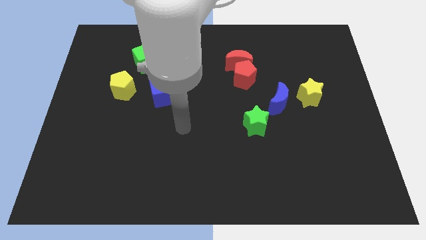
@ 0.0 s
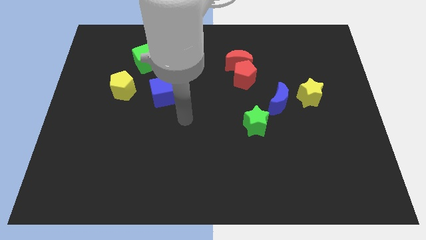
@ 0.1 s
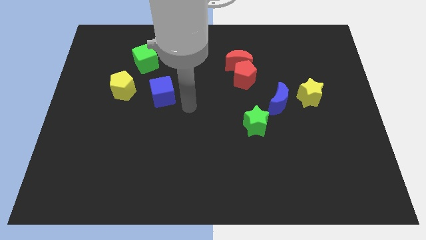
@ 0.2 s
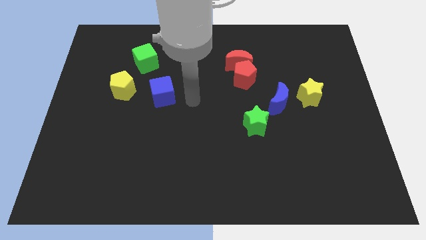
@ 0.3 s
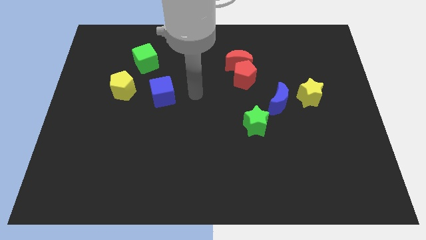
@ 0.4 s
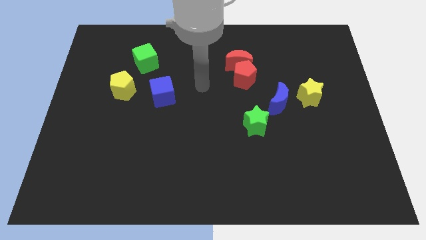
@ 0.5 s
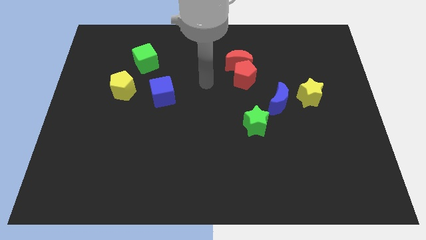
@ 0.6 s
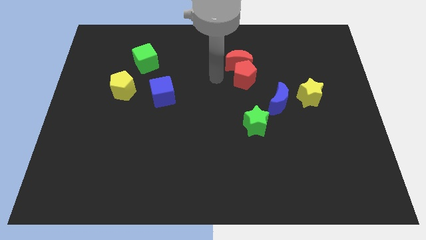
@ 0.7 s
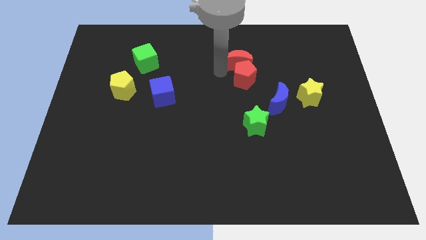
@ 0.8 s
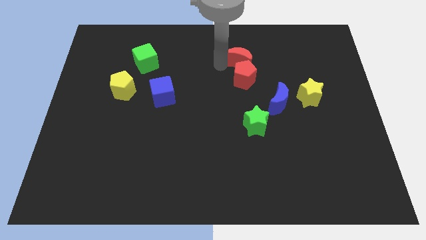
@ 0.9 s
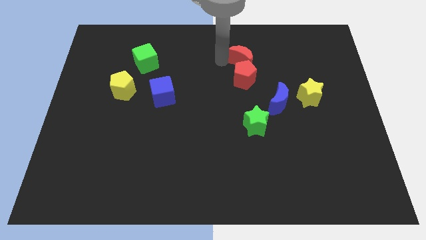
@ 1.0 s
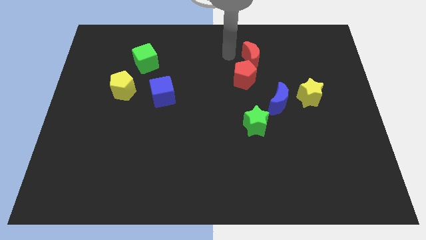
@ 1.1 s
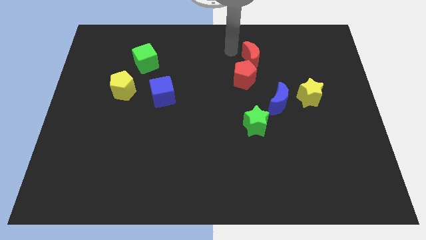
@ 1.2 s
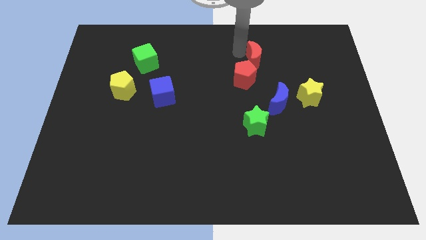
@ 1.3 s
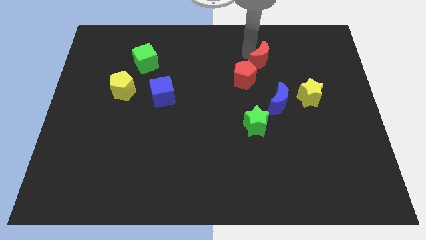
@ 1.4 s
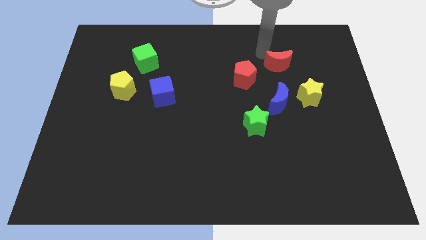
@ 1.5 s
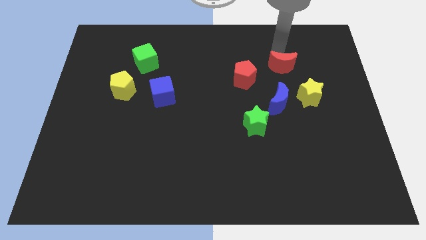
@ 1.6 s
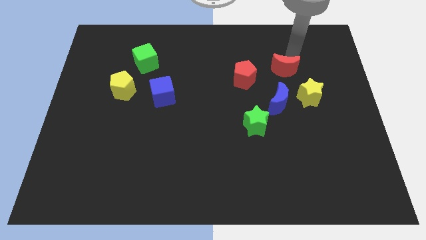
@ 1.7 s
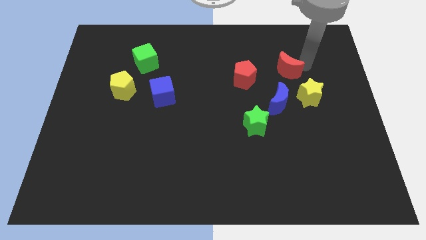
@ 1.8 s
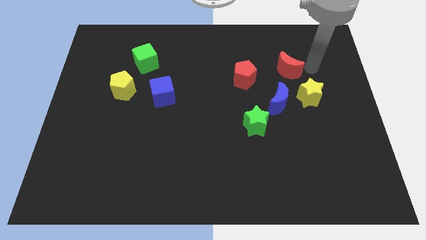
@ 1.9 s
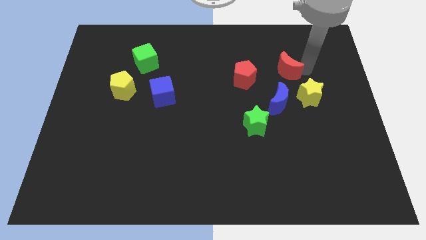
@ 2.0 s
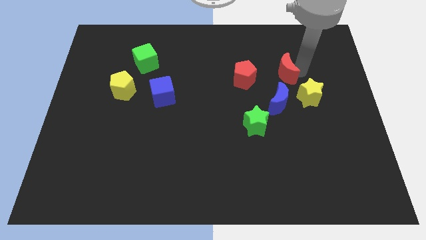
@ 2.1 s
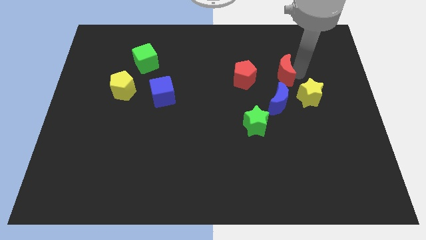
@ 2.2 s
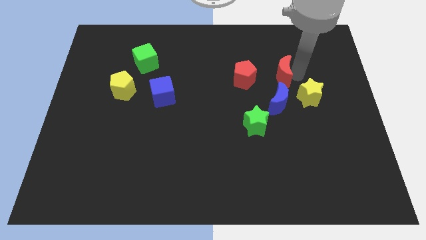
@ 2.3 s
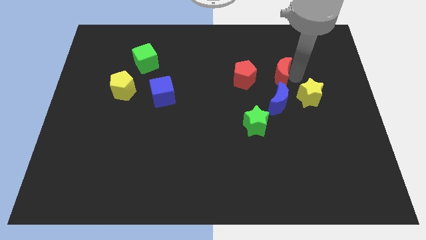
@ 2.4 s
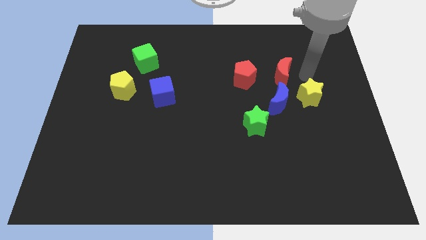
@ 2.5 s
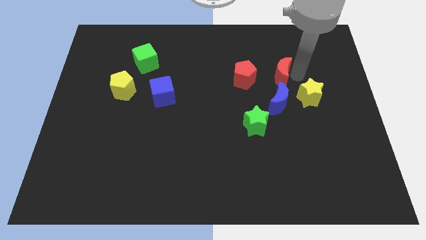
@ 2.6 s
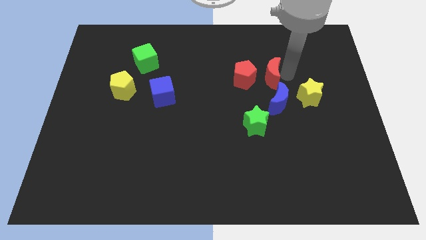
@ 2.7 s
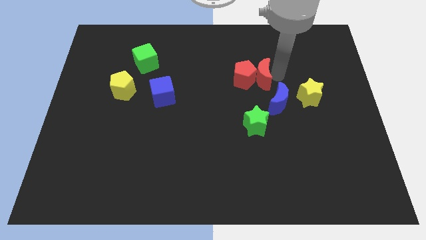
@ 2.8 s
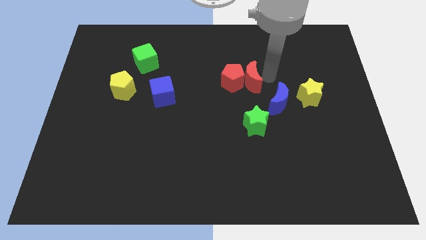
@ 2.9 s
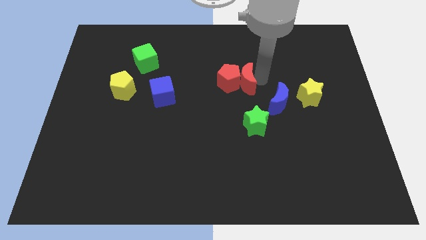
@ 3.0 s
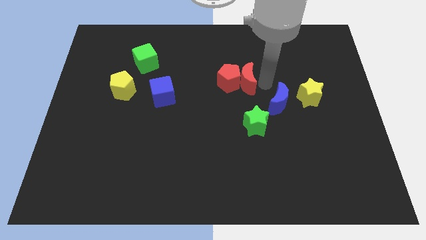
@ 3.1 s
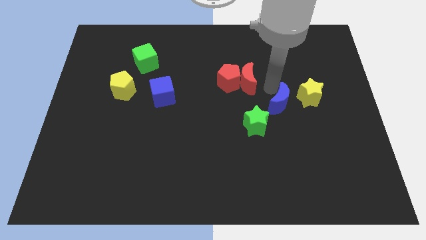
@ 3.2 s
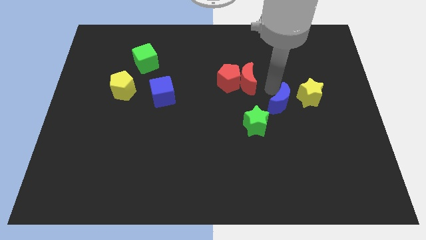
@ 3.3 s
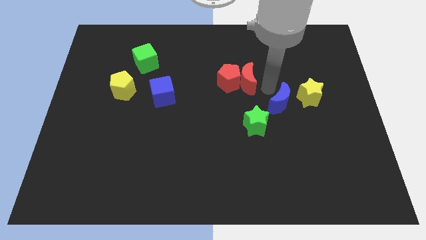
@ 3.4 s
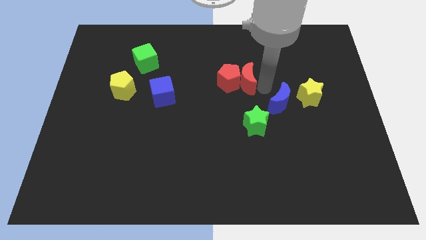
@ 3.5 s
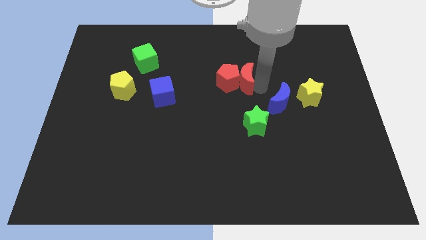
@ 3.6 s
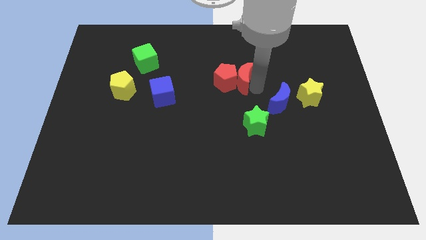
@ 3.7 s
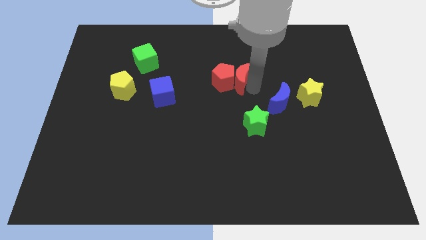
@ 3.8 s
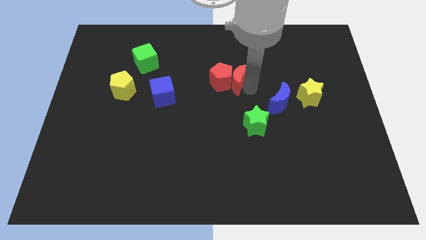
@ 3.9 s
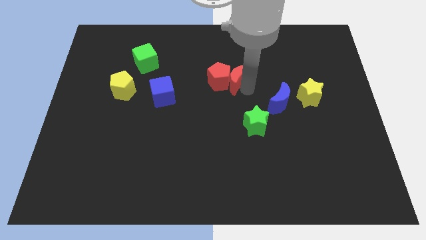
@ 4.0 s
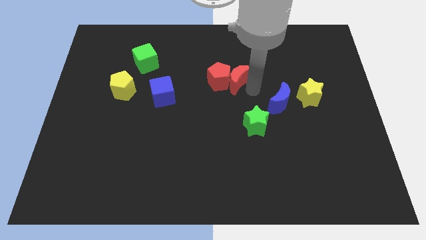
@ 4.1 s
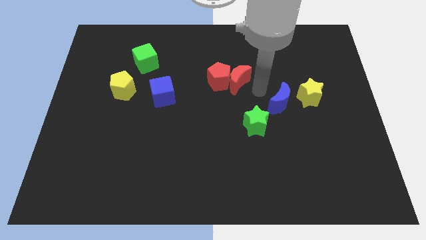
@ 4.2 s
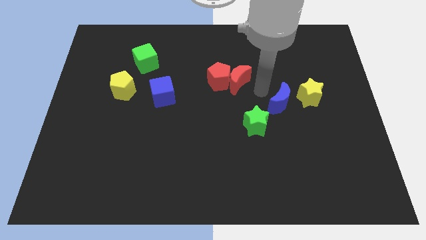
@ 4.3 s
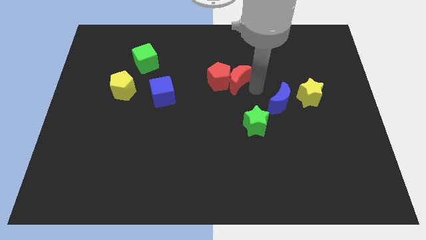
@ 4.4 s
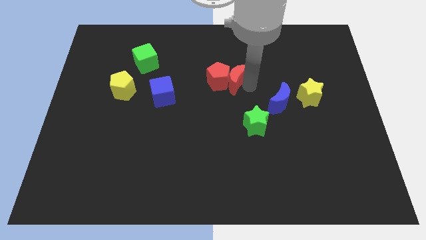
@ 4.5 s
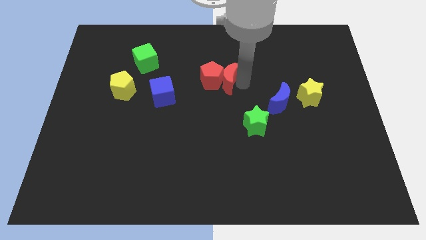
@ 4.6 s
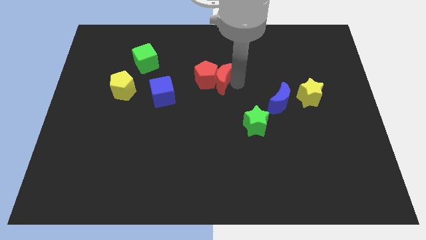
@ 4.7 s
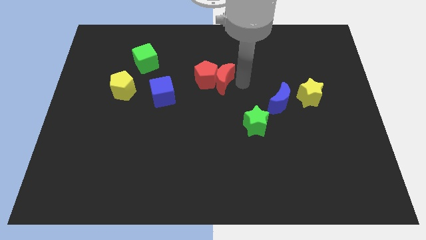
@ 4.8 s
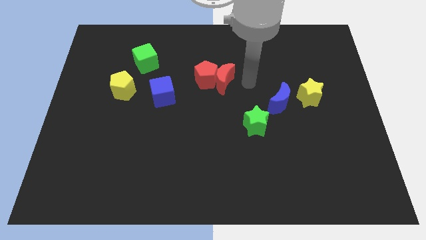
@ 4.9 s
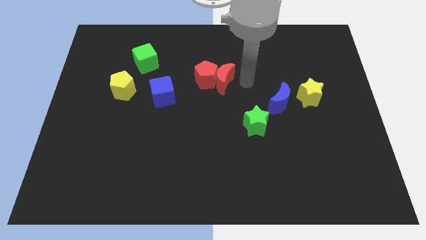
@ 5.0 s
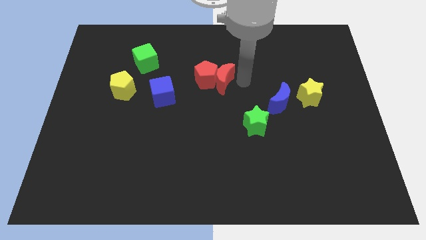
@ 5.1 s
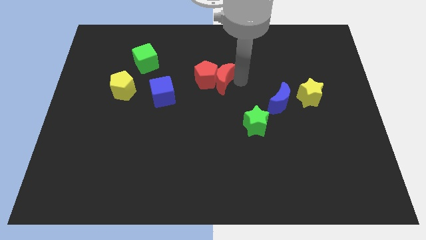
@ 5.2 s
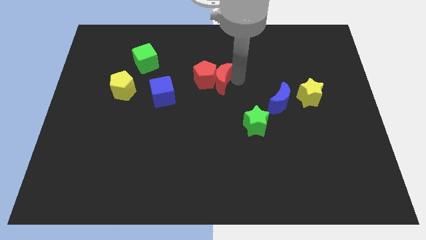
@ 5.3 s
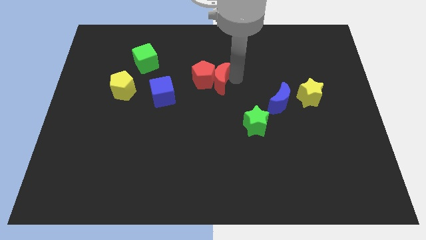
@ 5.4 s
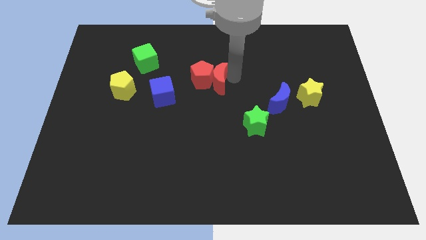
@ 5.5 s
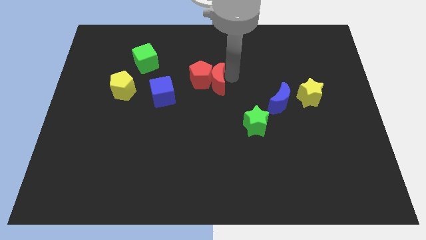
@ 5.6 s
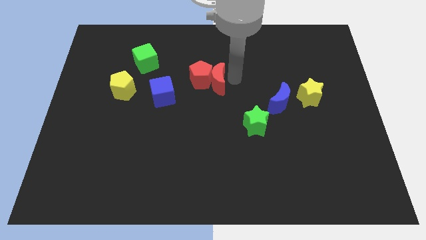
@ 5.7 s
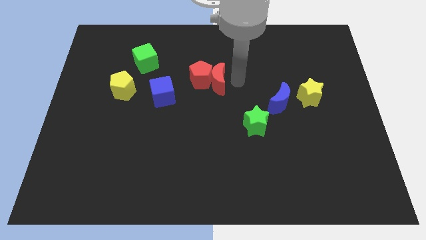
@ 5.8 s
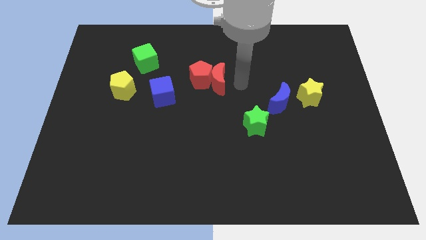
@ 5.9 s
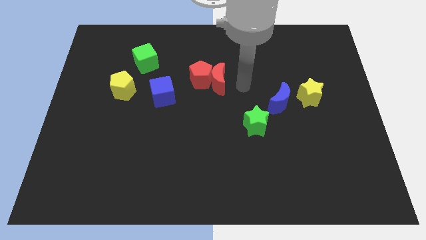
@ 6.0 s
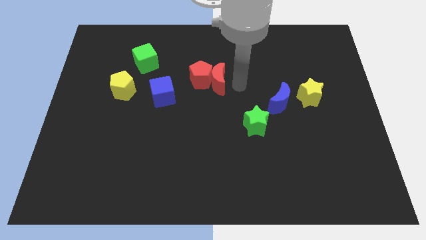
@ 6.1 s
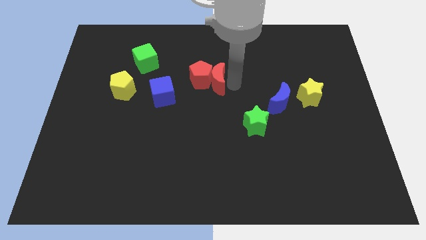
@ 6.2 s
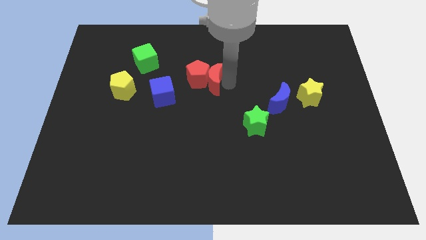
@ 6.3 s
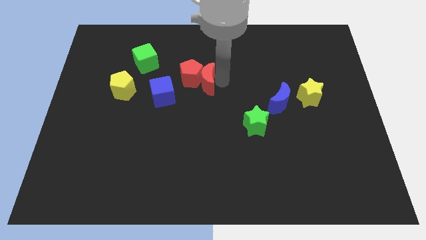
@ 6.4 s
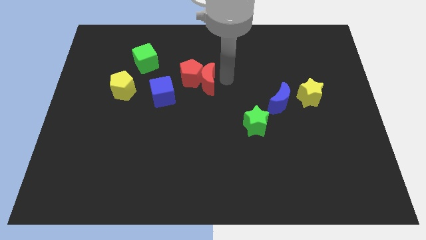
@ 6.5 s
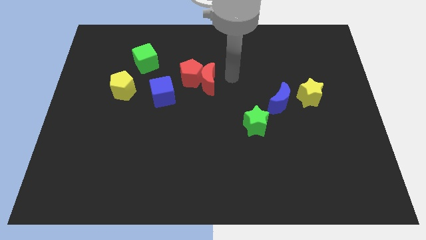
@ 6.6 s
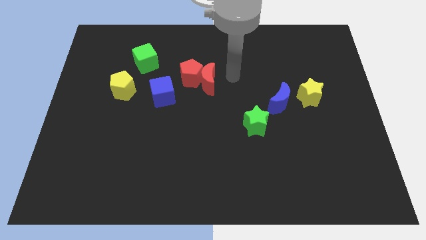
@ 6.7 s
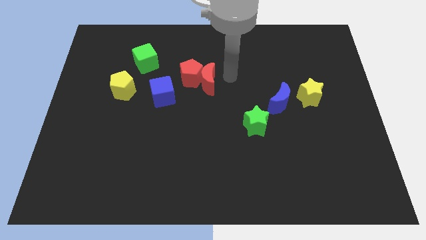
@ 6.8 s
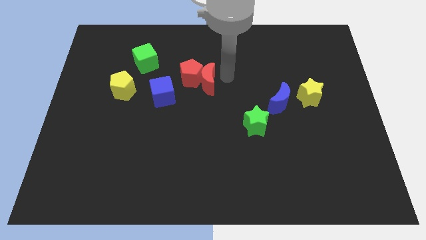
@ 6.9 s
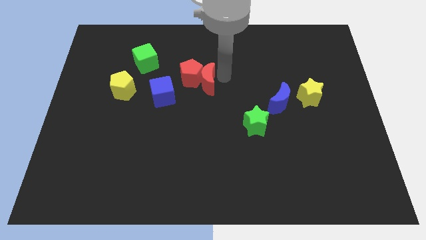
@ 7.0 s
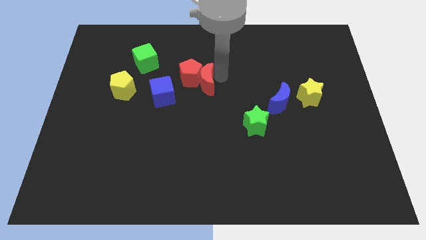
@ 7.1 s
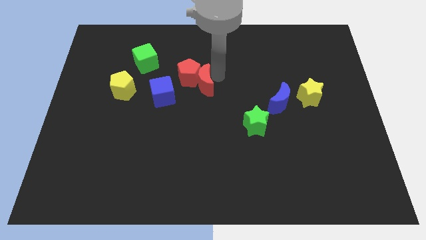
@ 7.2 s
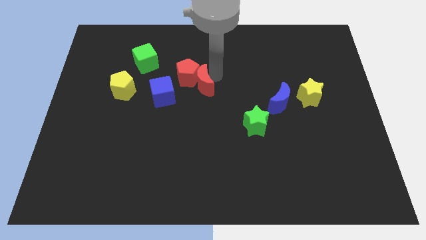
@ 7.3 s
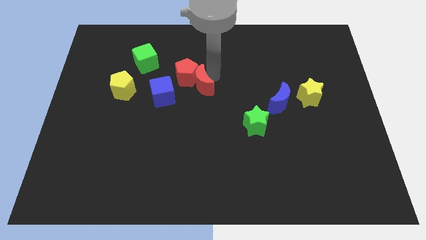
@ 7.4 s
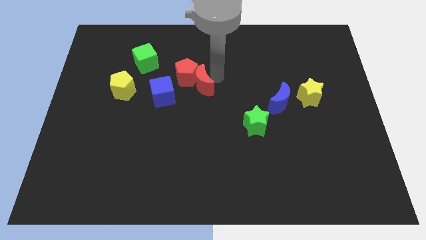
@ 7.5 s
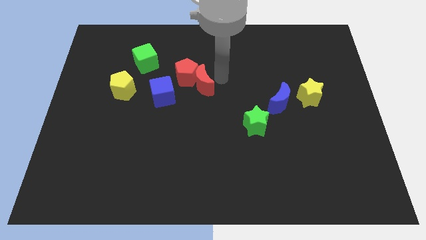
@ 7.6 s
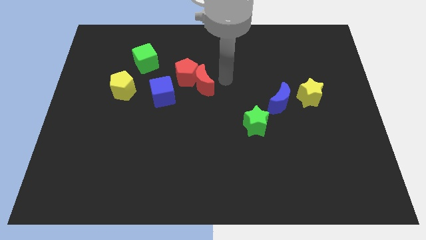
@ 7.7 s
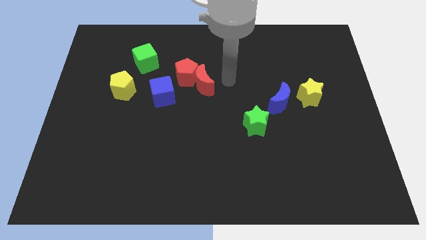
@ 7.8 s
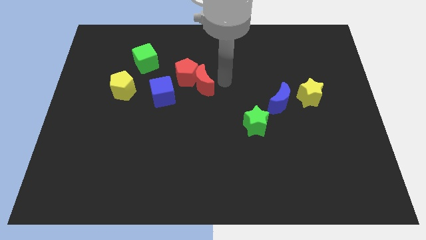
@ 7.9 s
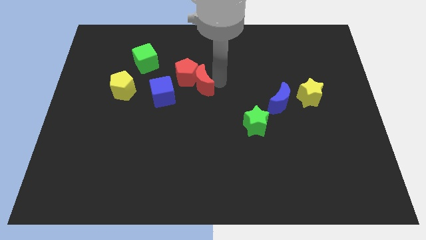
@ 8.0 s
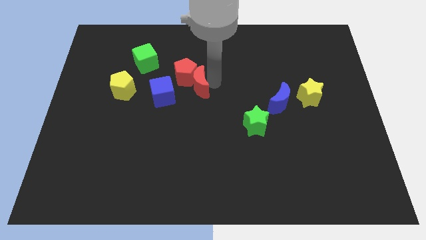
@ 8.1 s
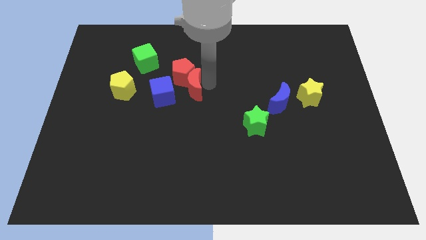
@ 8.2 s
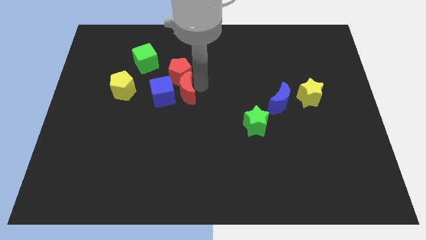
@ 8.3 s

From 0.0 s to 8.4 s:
put the red moon towards the blue cube
